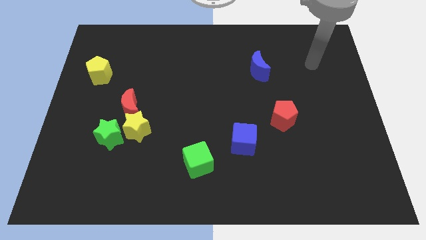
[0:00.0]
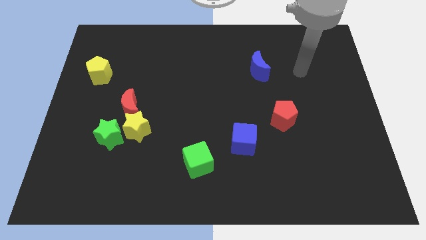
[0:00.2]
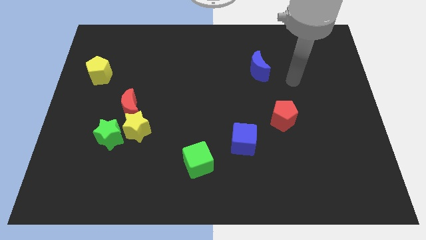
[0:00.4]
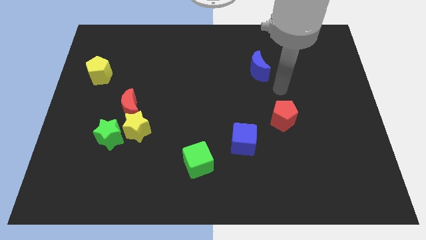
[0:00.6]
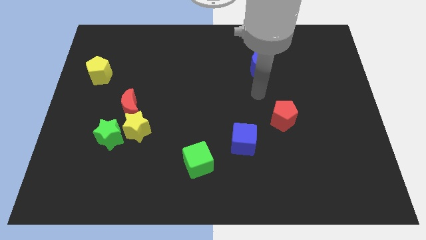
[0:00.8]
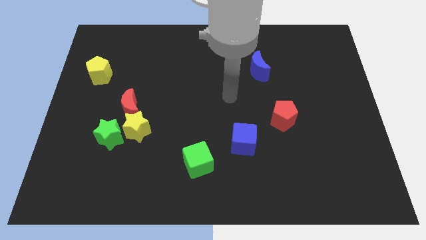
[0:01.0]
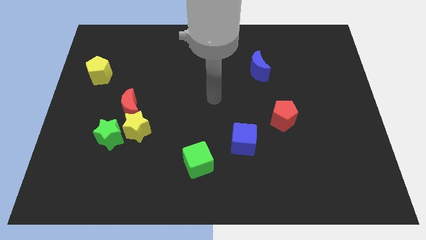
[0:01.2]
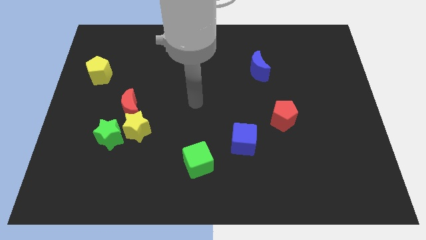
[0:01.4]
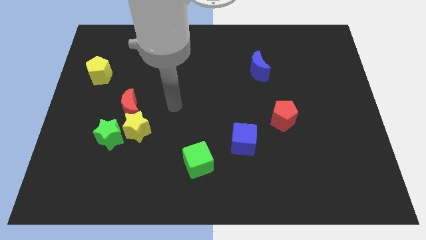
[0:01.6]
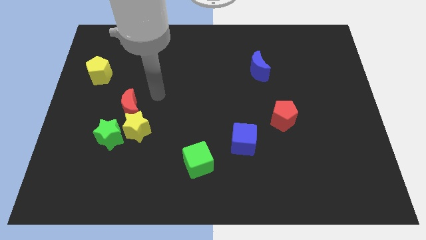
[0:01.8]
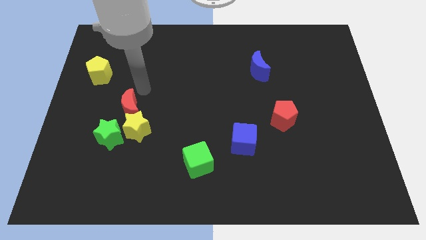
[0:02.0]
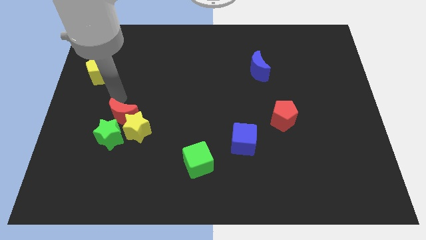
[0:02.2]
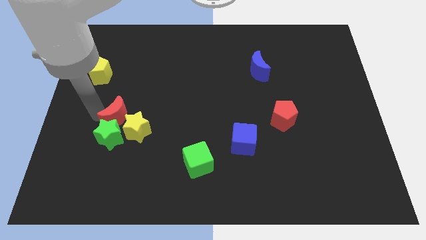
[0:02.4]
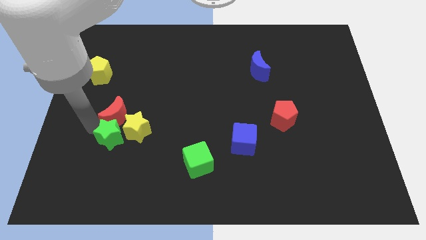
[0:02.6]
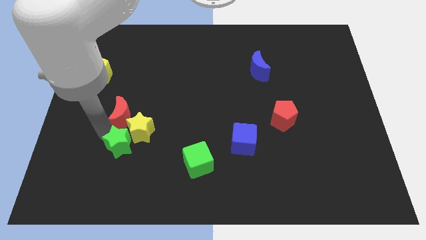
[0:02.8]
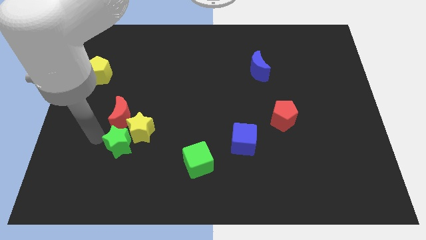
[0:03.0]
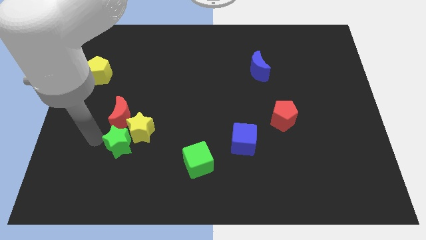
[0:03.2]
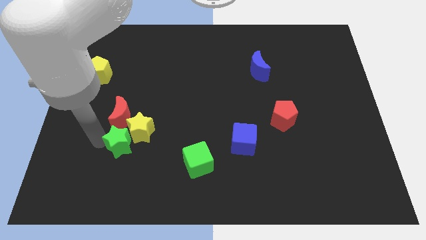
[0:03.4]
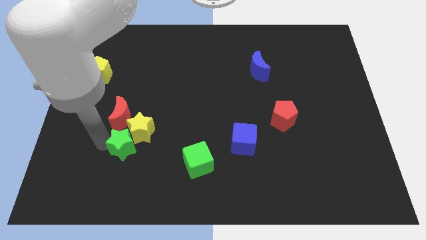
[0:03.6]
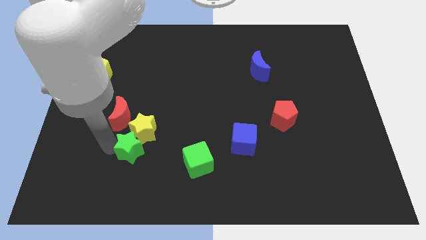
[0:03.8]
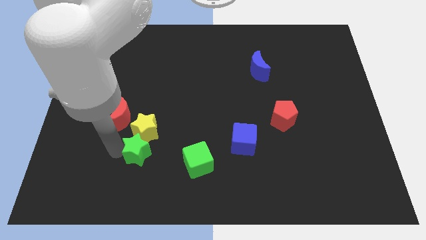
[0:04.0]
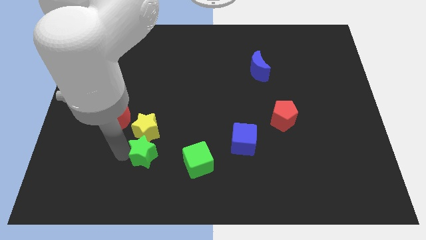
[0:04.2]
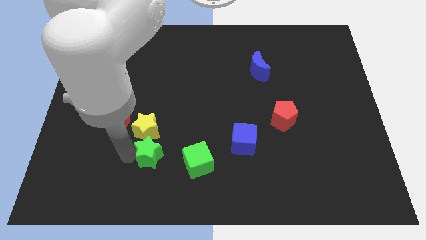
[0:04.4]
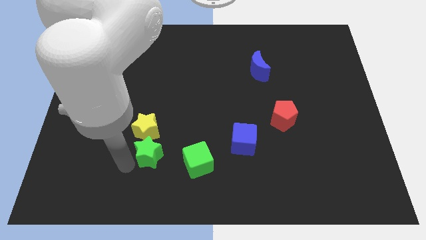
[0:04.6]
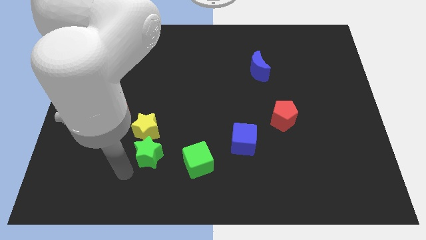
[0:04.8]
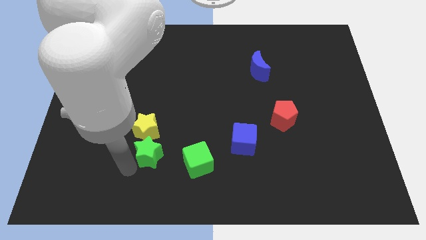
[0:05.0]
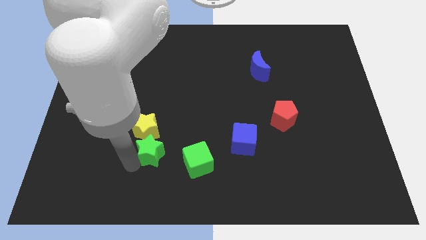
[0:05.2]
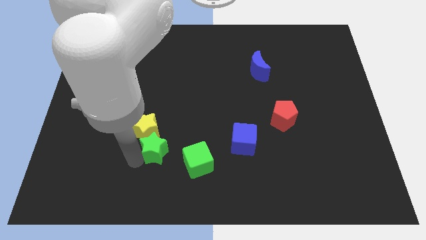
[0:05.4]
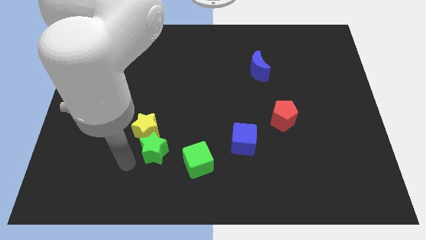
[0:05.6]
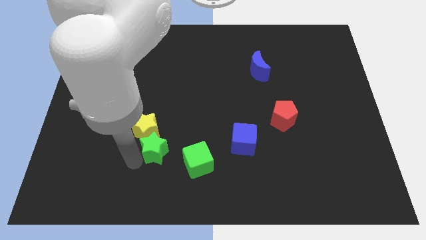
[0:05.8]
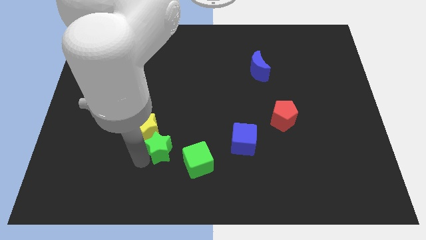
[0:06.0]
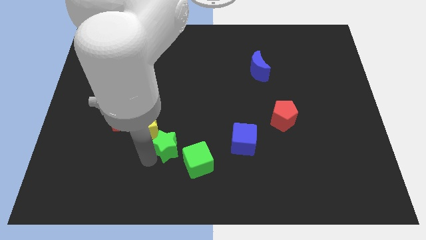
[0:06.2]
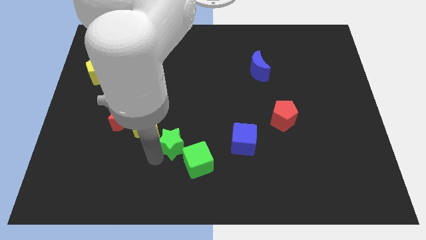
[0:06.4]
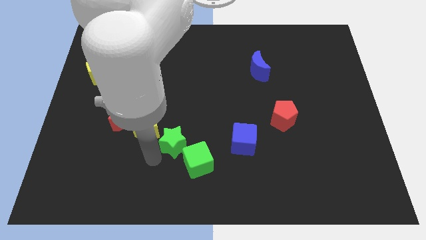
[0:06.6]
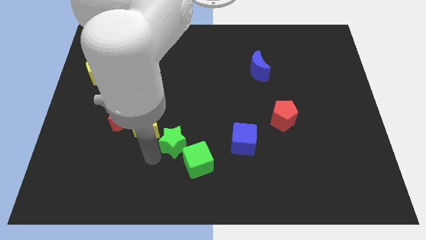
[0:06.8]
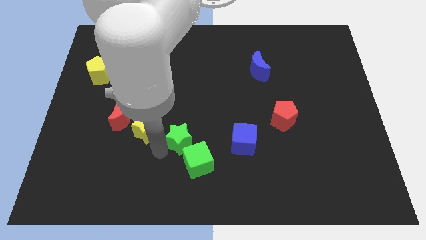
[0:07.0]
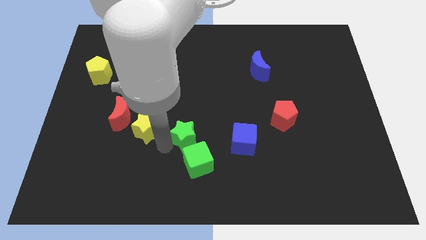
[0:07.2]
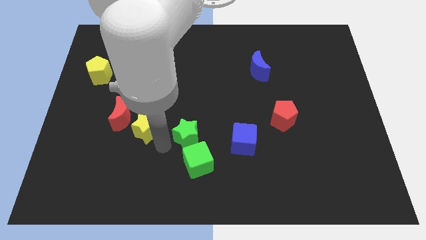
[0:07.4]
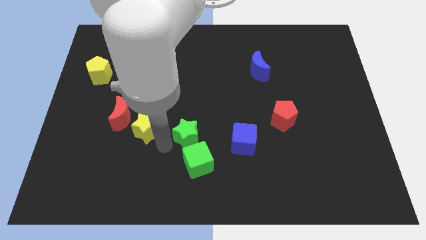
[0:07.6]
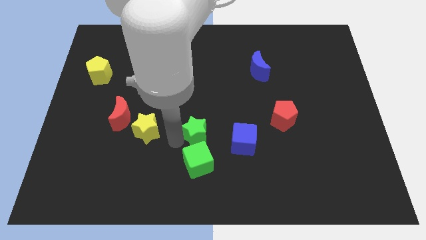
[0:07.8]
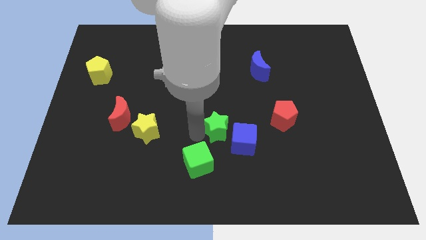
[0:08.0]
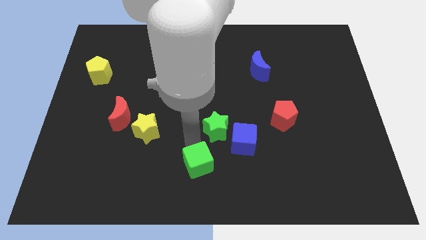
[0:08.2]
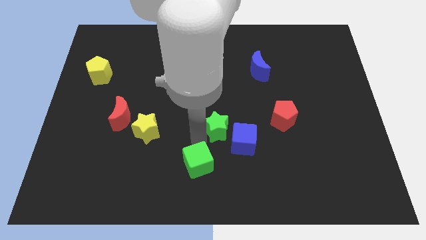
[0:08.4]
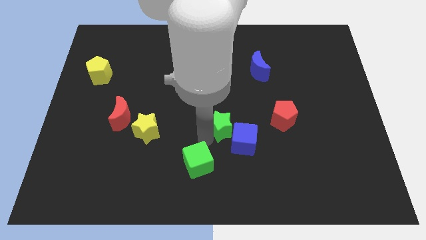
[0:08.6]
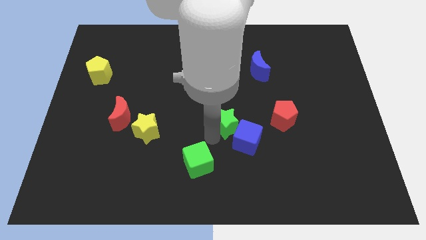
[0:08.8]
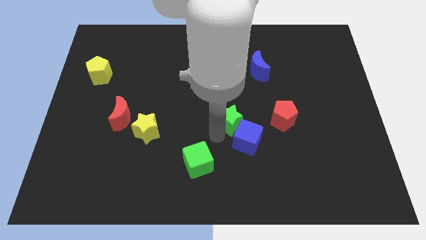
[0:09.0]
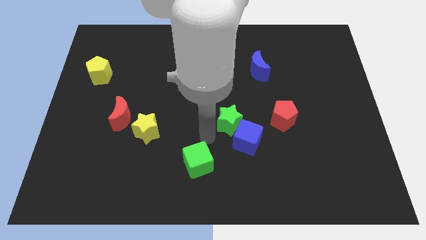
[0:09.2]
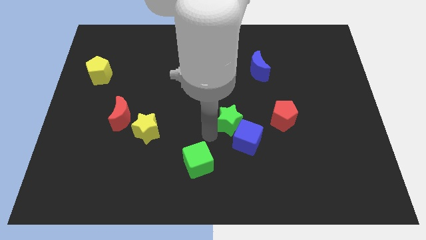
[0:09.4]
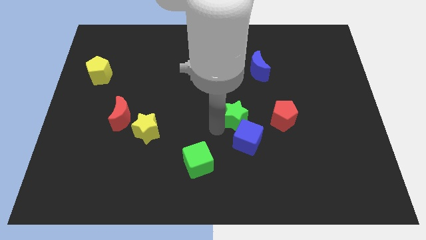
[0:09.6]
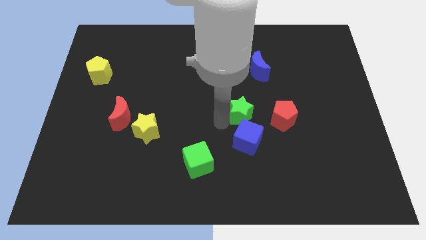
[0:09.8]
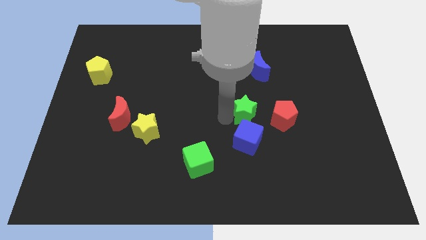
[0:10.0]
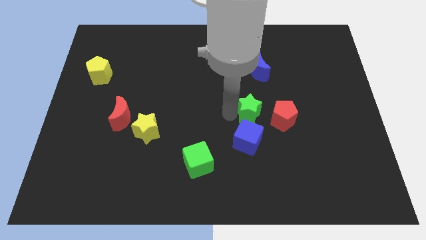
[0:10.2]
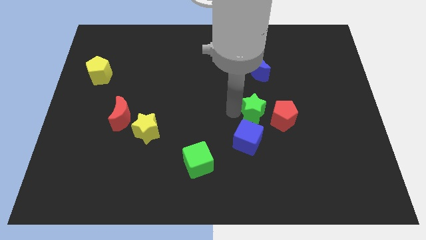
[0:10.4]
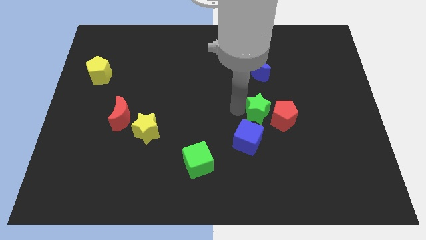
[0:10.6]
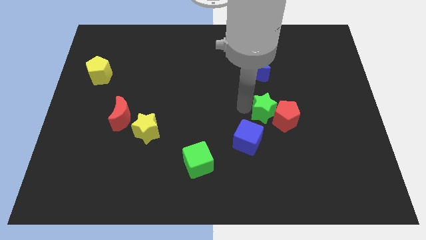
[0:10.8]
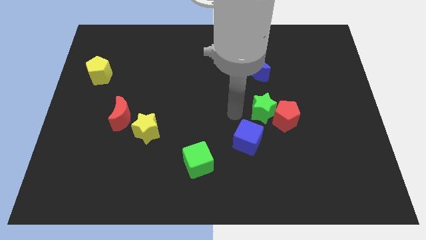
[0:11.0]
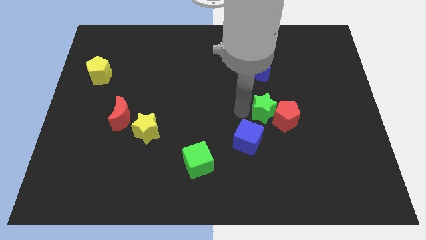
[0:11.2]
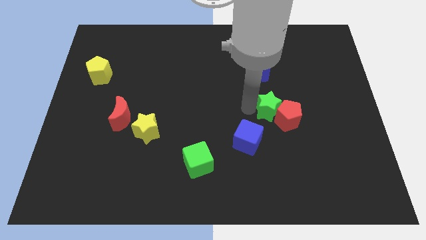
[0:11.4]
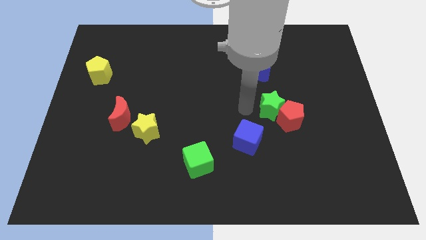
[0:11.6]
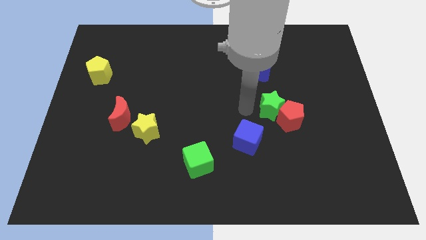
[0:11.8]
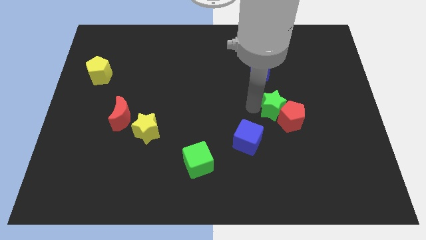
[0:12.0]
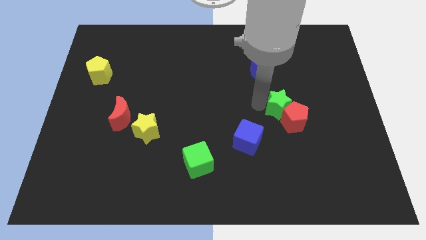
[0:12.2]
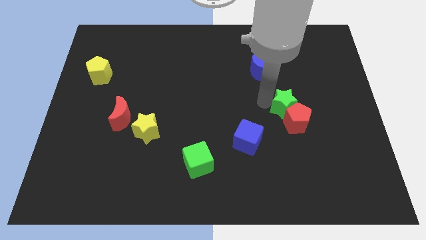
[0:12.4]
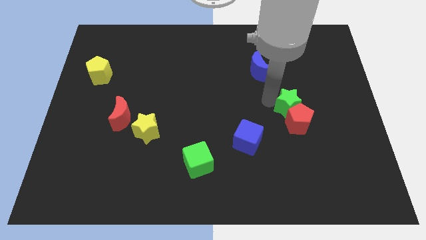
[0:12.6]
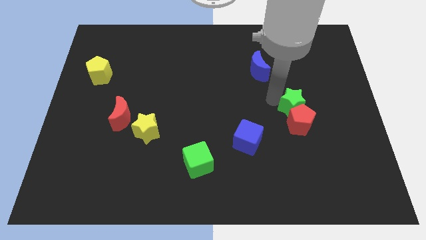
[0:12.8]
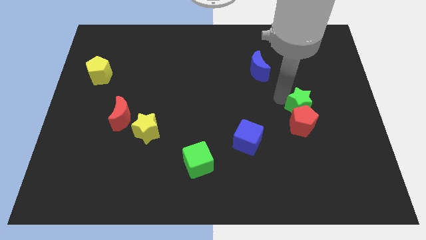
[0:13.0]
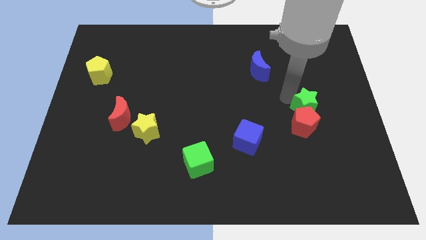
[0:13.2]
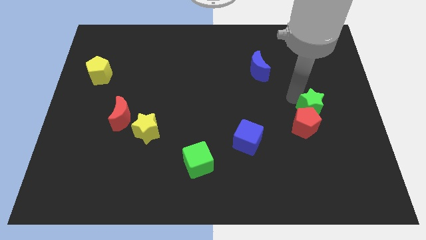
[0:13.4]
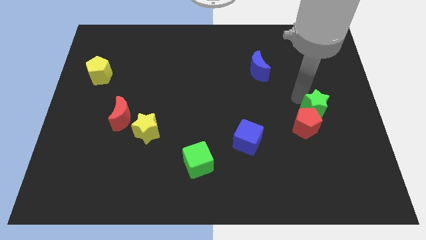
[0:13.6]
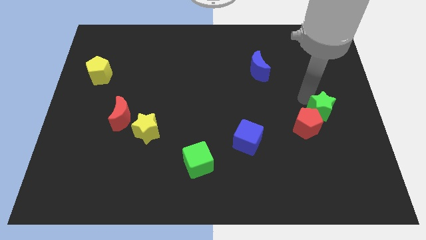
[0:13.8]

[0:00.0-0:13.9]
slide the green star to the right side
